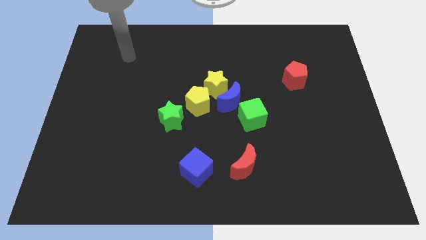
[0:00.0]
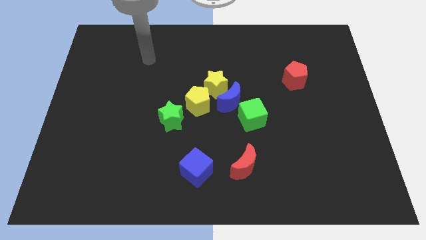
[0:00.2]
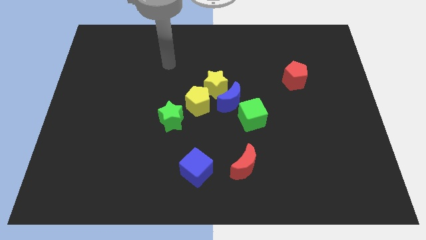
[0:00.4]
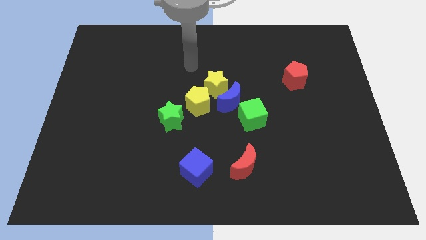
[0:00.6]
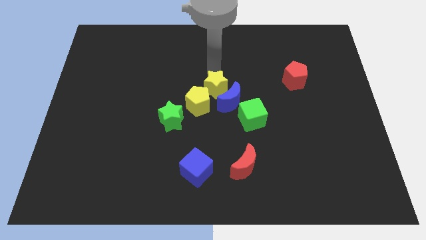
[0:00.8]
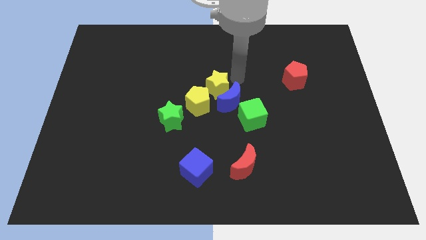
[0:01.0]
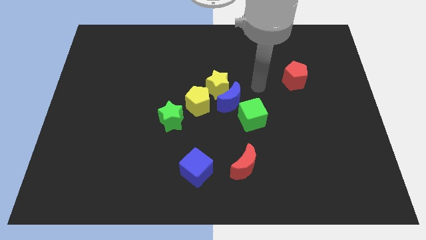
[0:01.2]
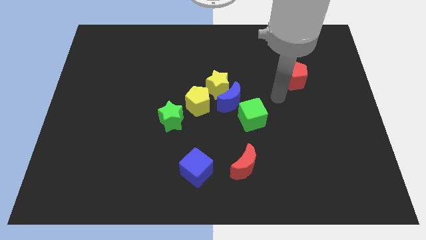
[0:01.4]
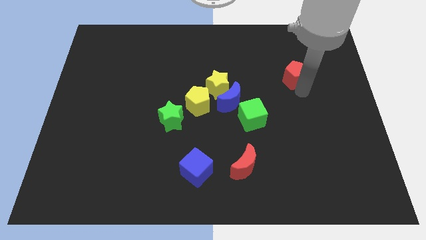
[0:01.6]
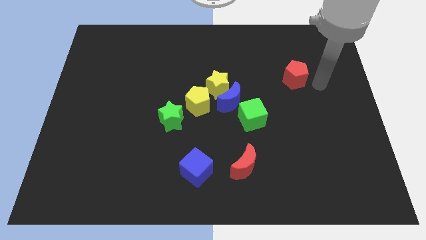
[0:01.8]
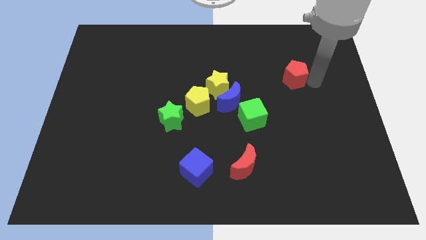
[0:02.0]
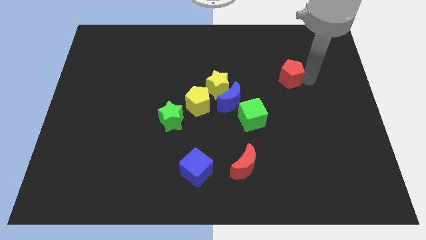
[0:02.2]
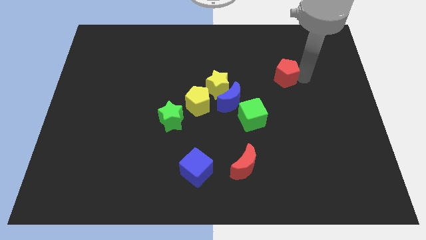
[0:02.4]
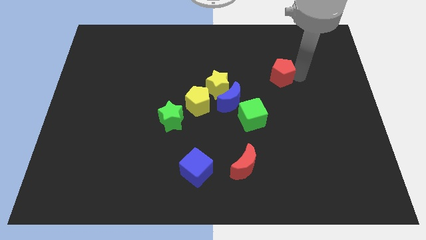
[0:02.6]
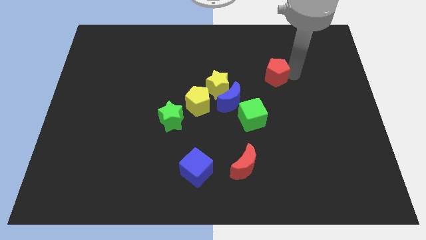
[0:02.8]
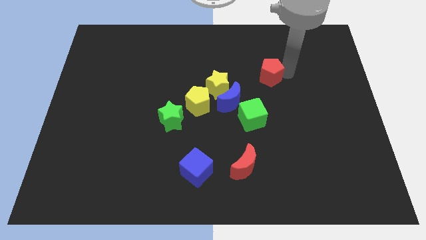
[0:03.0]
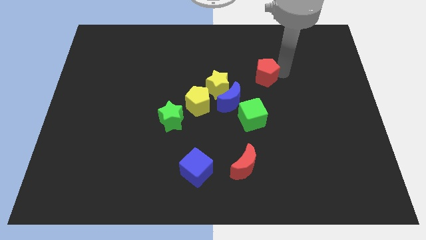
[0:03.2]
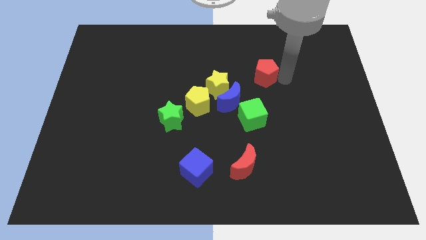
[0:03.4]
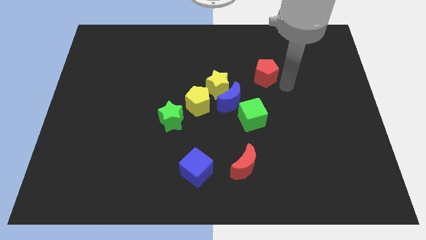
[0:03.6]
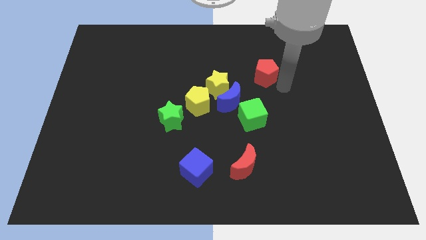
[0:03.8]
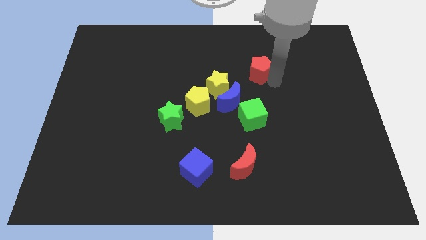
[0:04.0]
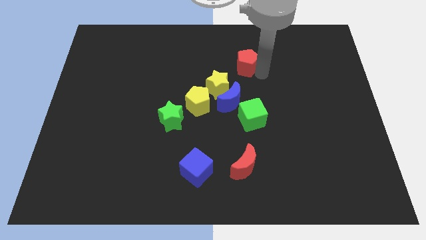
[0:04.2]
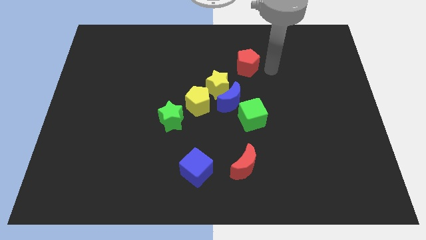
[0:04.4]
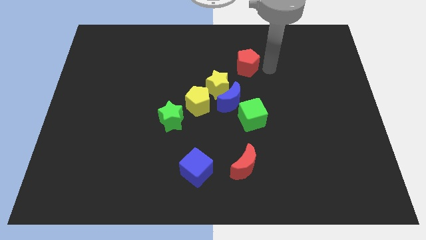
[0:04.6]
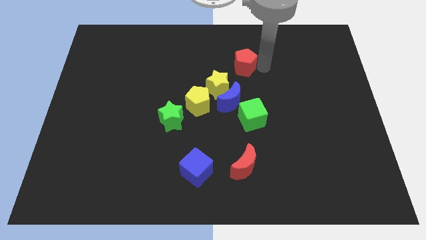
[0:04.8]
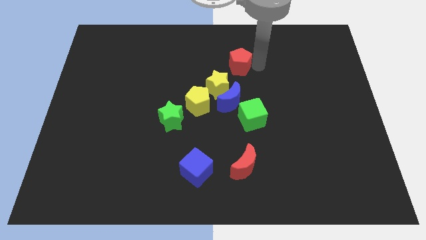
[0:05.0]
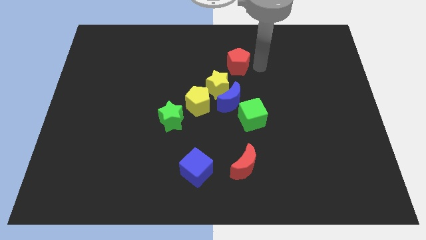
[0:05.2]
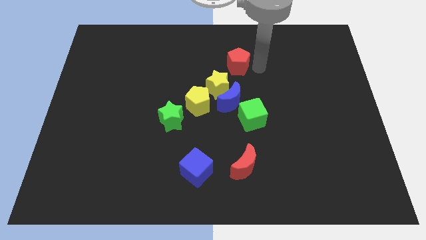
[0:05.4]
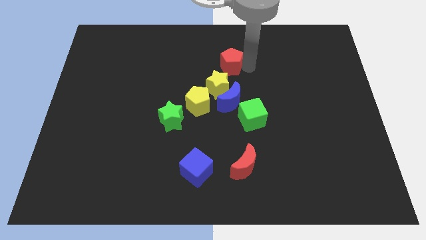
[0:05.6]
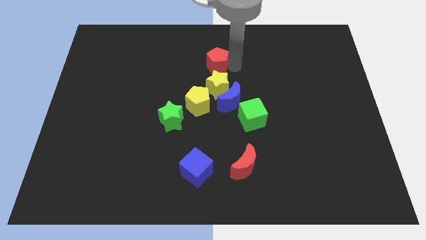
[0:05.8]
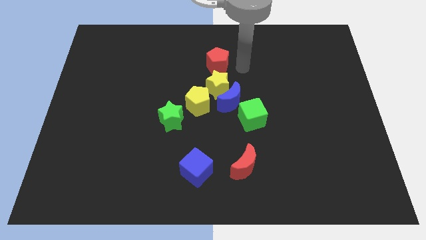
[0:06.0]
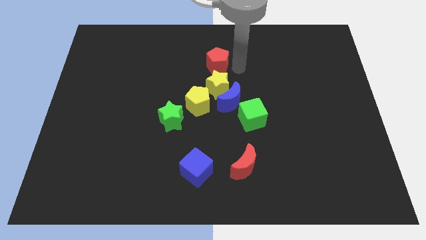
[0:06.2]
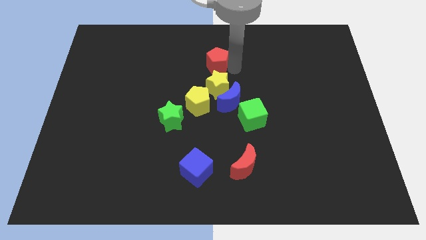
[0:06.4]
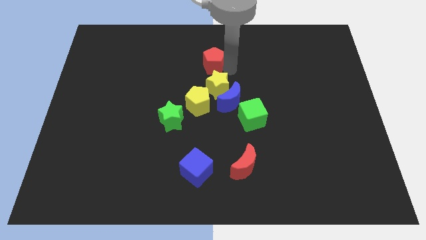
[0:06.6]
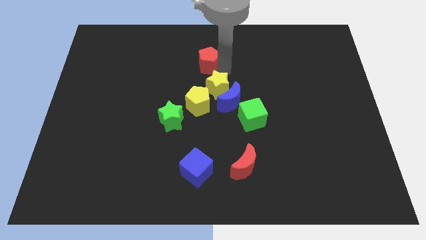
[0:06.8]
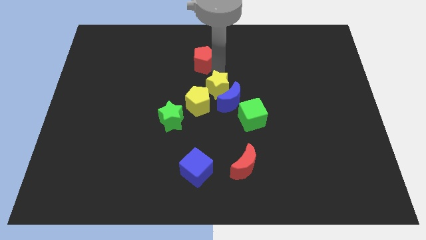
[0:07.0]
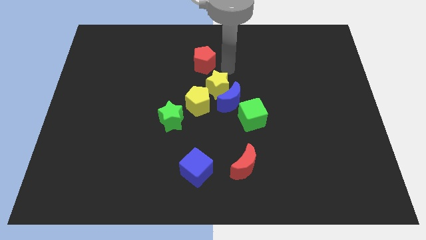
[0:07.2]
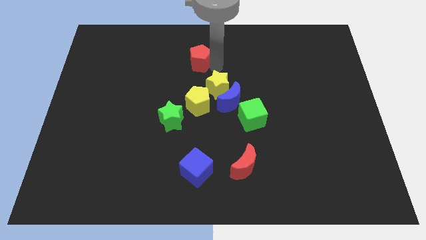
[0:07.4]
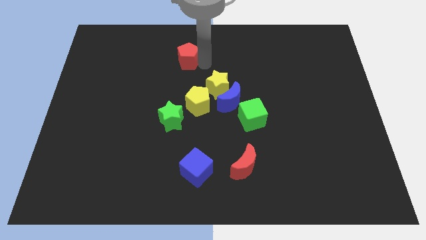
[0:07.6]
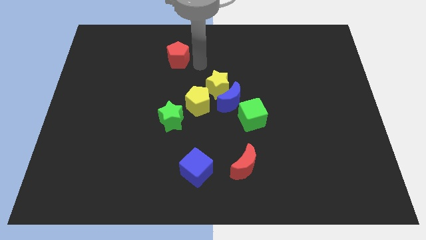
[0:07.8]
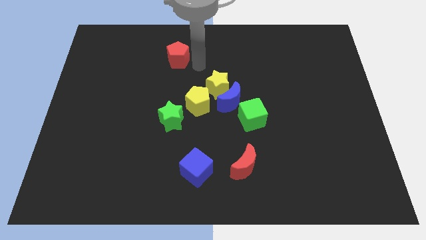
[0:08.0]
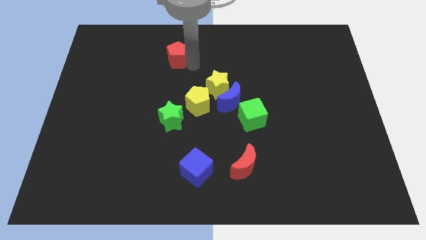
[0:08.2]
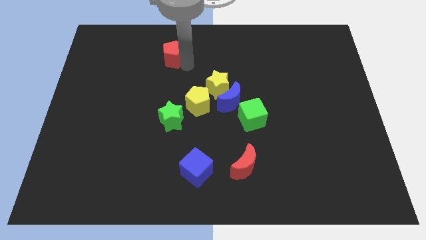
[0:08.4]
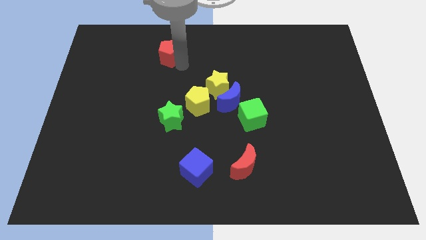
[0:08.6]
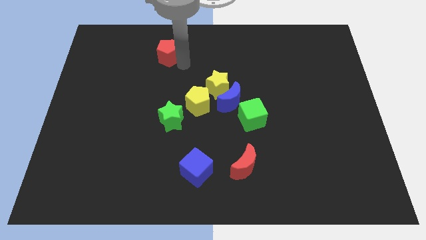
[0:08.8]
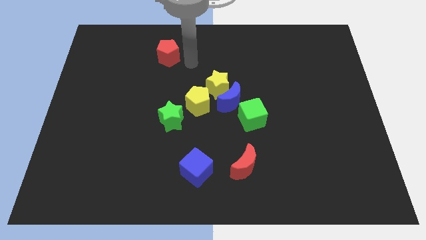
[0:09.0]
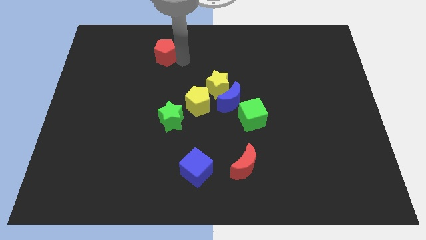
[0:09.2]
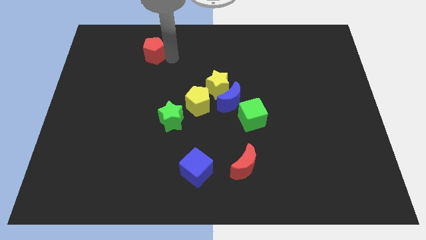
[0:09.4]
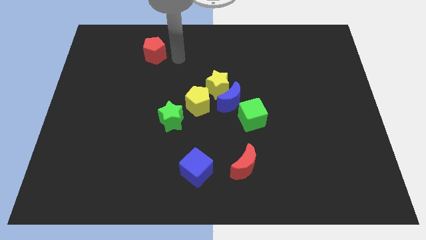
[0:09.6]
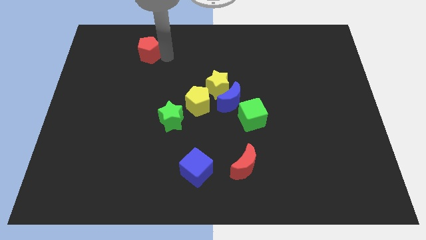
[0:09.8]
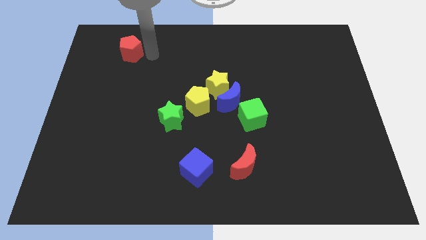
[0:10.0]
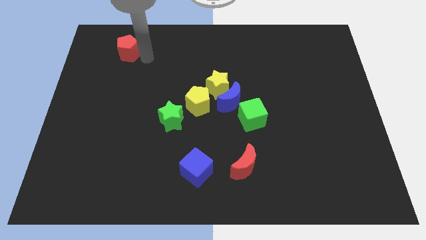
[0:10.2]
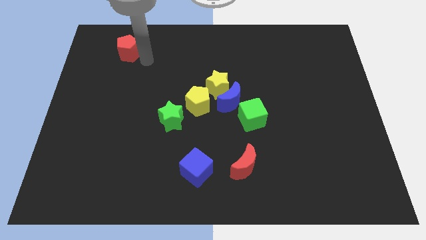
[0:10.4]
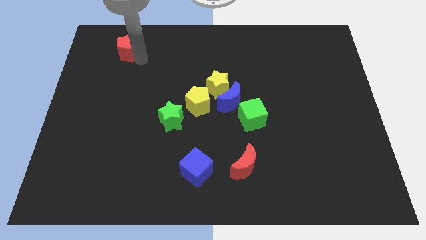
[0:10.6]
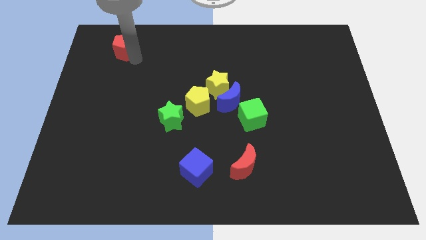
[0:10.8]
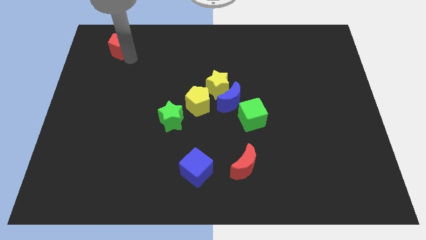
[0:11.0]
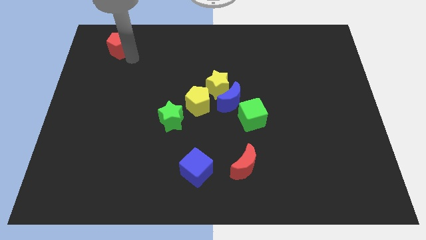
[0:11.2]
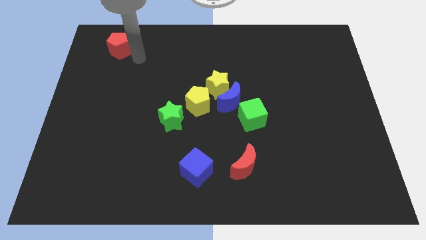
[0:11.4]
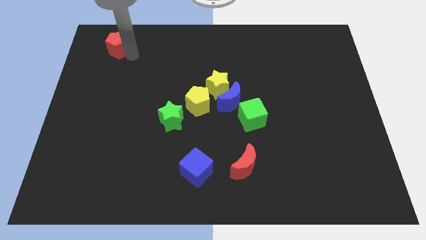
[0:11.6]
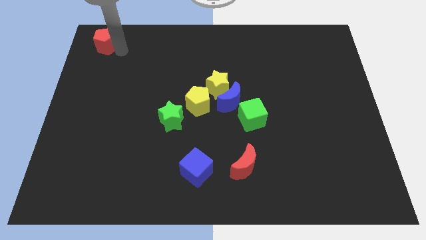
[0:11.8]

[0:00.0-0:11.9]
move the red pentagon to the top left of the board
